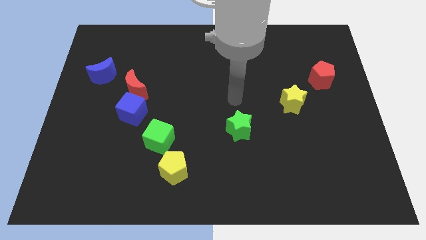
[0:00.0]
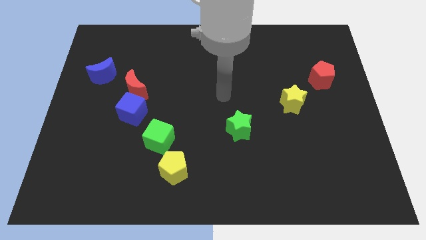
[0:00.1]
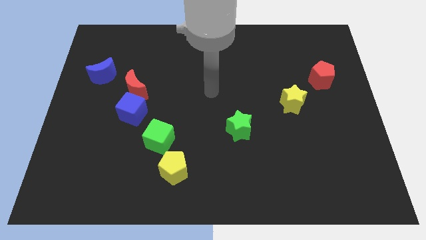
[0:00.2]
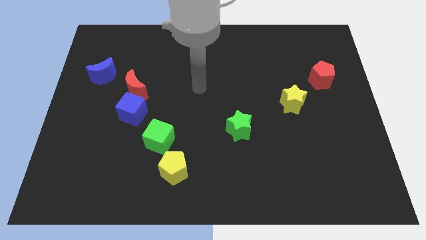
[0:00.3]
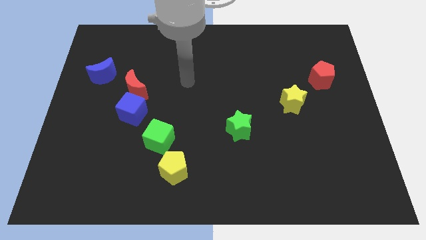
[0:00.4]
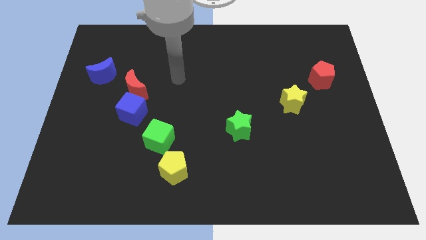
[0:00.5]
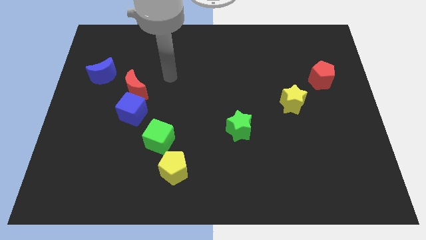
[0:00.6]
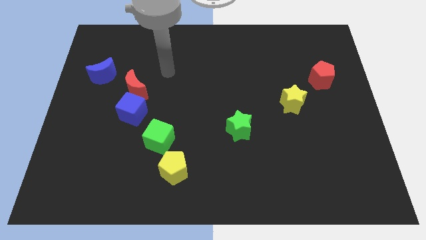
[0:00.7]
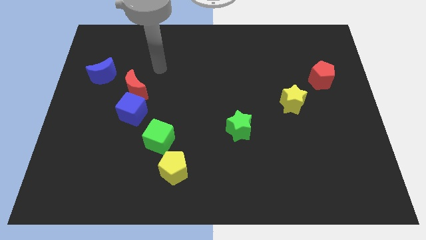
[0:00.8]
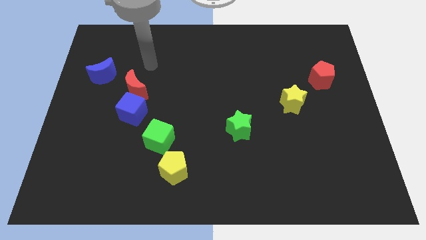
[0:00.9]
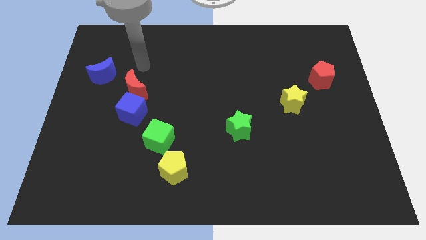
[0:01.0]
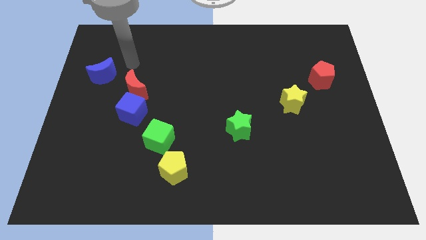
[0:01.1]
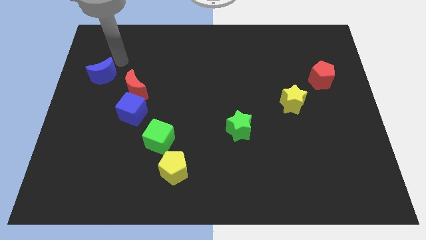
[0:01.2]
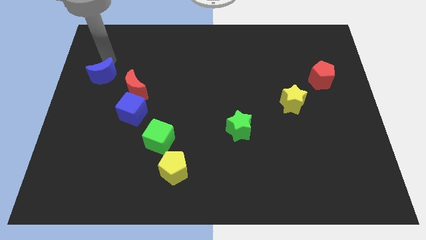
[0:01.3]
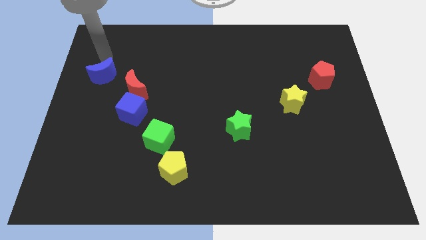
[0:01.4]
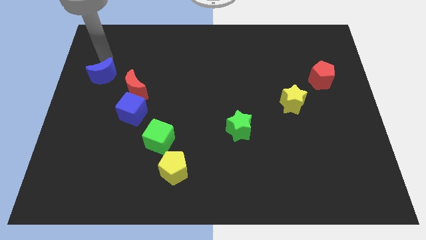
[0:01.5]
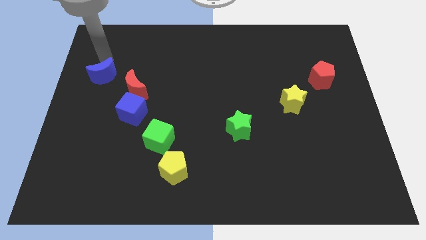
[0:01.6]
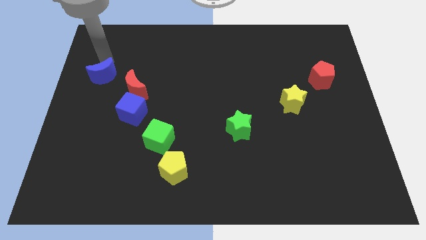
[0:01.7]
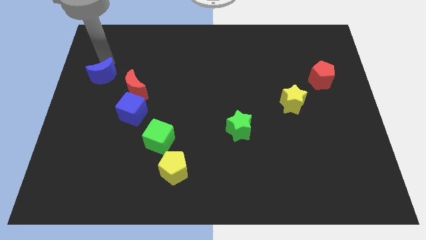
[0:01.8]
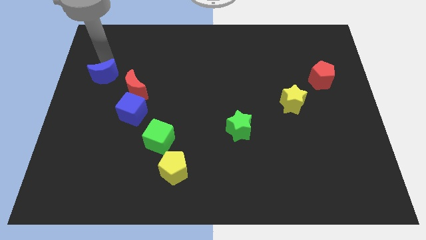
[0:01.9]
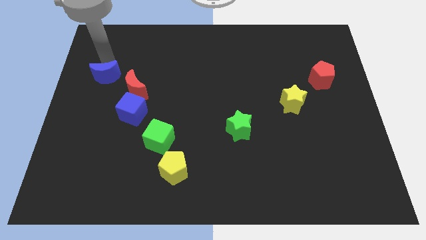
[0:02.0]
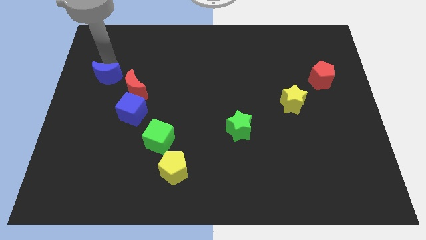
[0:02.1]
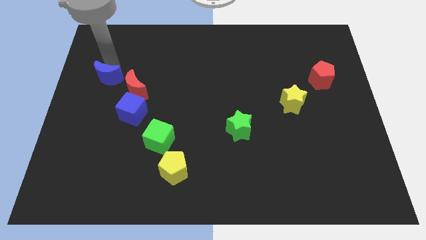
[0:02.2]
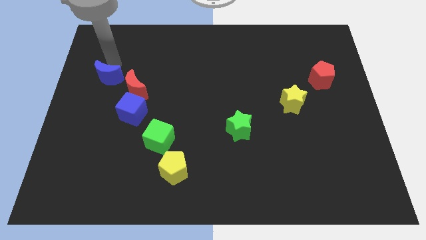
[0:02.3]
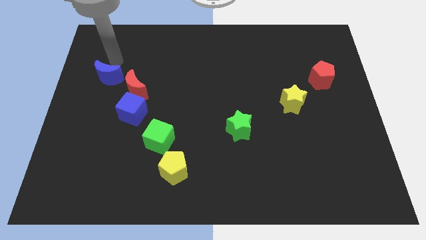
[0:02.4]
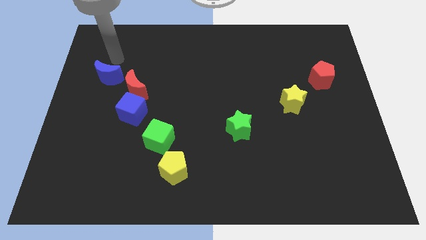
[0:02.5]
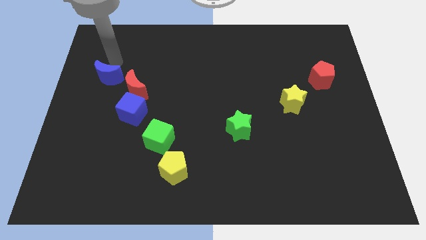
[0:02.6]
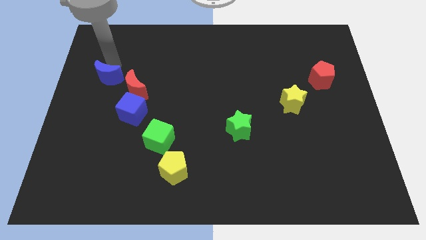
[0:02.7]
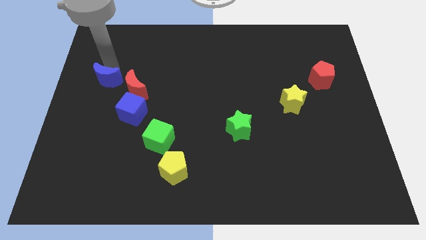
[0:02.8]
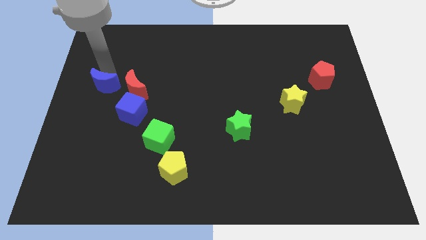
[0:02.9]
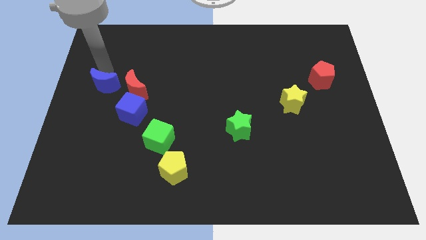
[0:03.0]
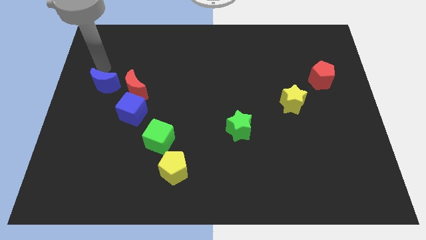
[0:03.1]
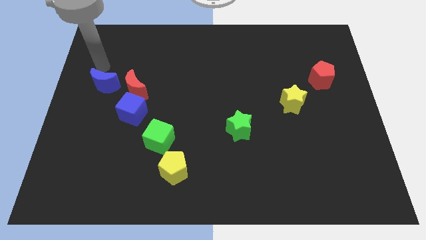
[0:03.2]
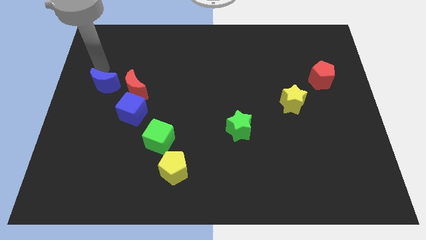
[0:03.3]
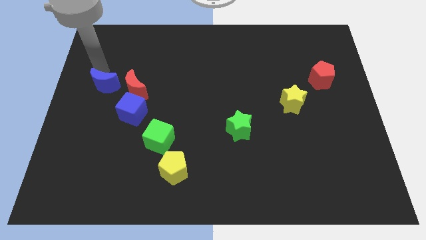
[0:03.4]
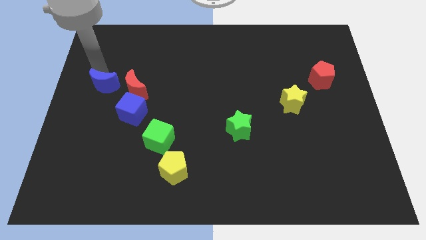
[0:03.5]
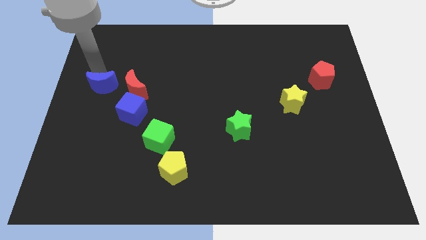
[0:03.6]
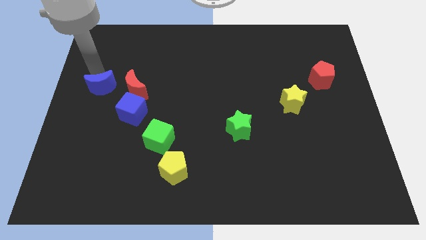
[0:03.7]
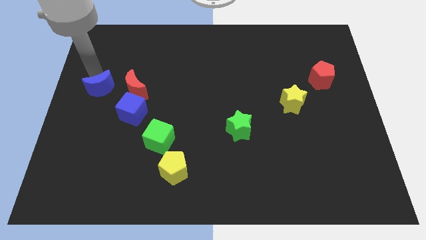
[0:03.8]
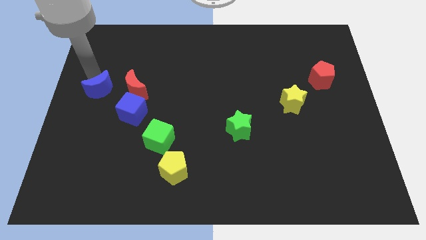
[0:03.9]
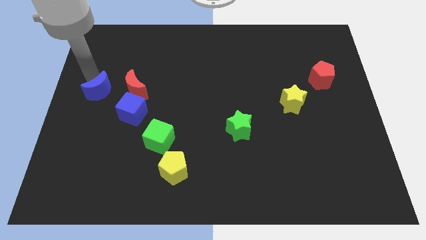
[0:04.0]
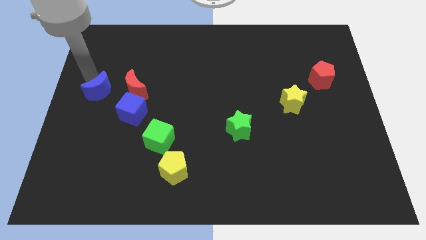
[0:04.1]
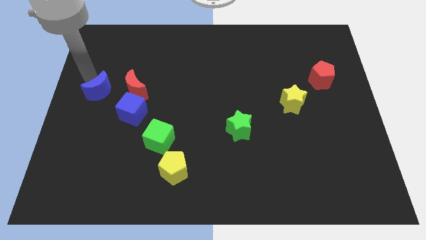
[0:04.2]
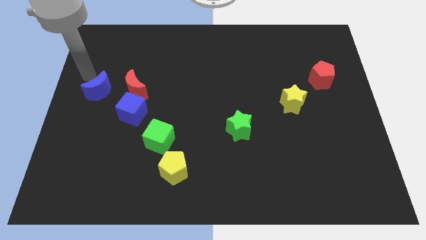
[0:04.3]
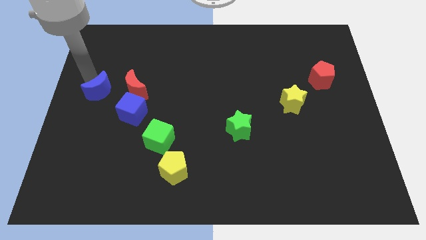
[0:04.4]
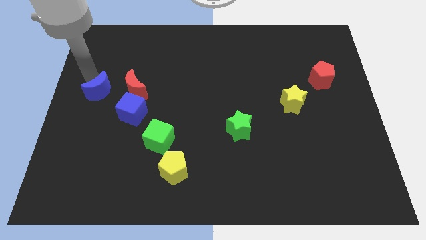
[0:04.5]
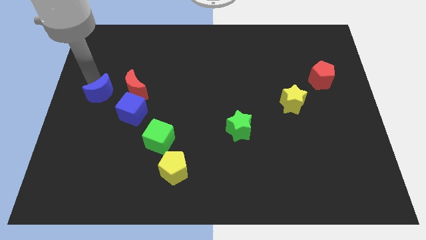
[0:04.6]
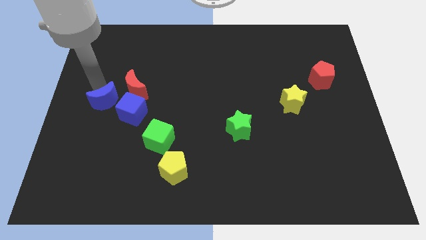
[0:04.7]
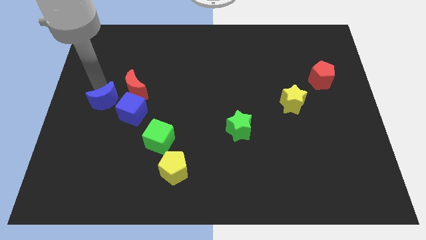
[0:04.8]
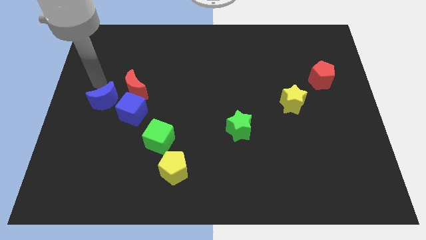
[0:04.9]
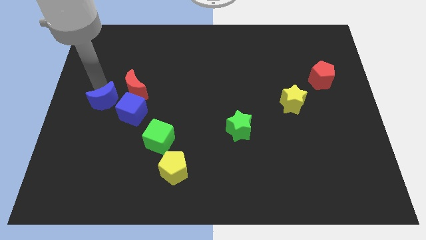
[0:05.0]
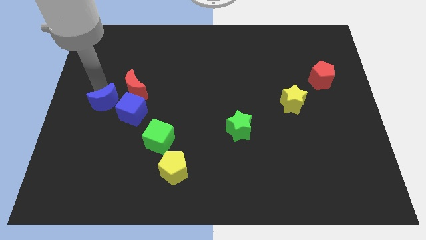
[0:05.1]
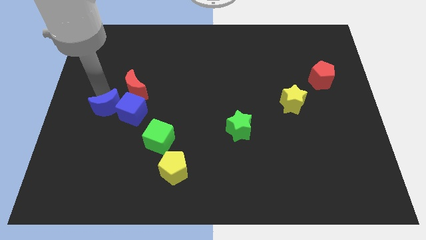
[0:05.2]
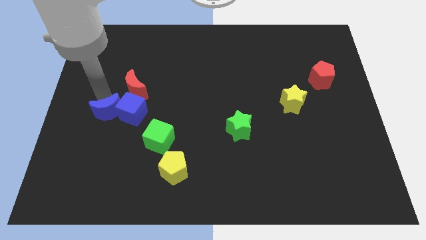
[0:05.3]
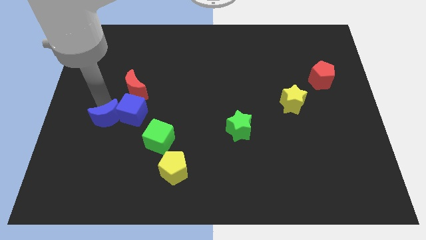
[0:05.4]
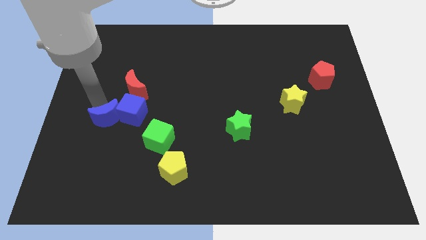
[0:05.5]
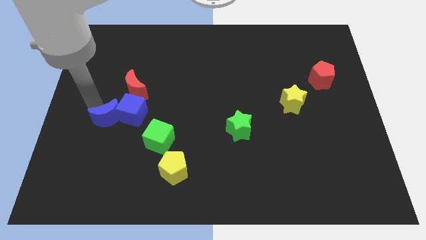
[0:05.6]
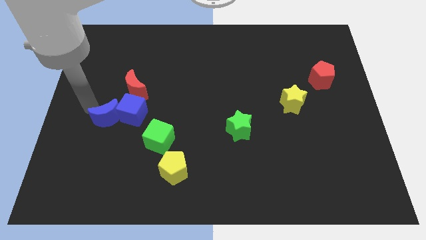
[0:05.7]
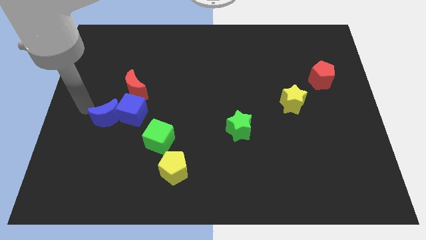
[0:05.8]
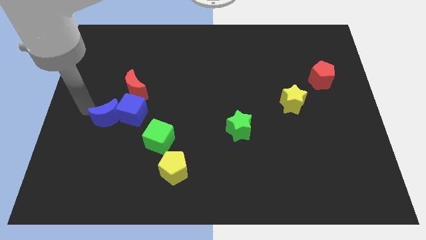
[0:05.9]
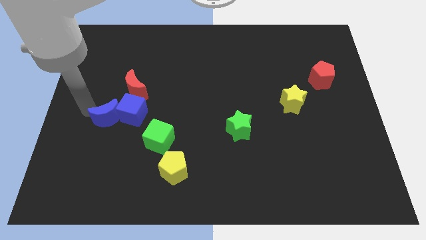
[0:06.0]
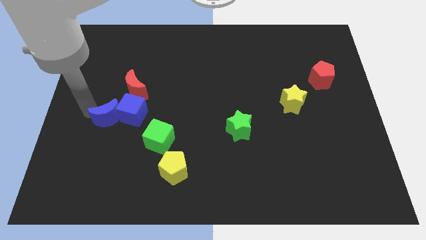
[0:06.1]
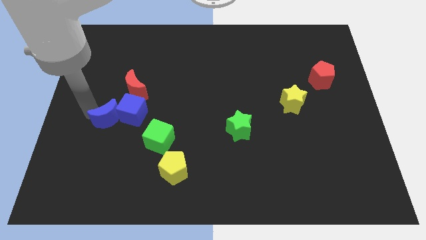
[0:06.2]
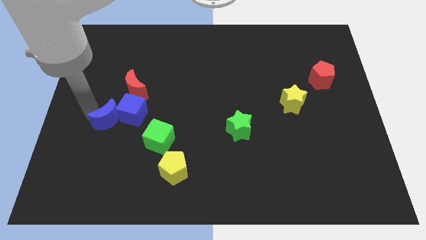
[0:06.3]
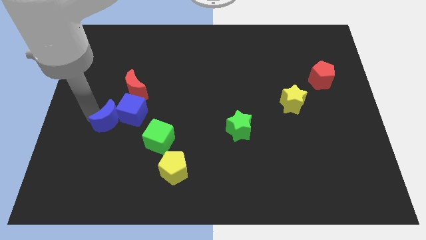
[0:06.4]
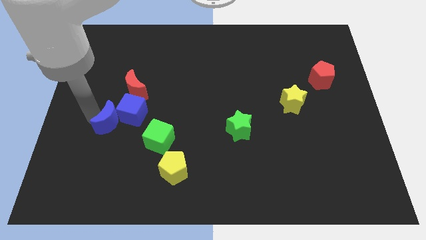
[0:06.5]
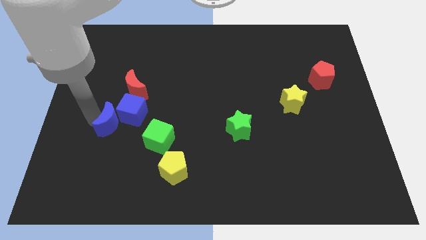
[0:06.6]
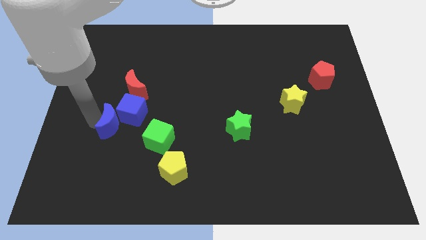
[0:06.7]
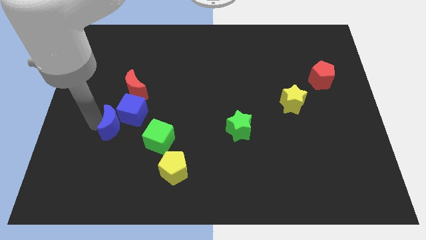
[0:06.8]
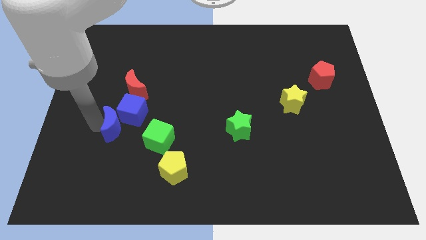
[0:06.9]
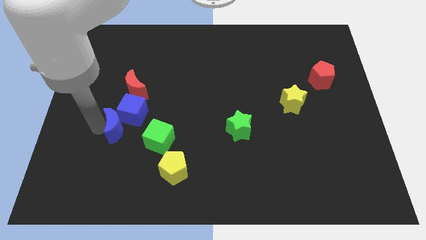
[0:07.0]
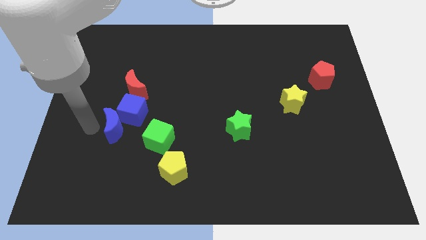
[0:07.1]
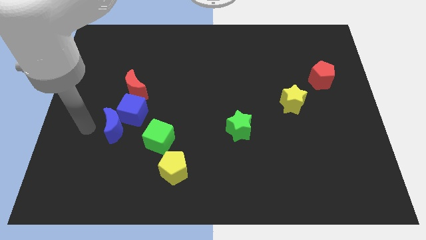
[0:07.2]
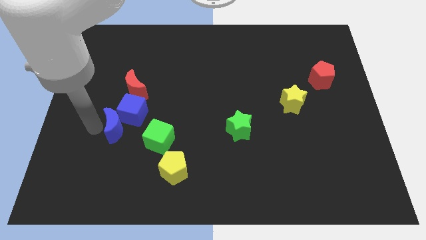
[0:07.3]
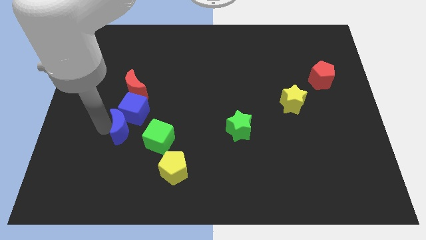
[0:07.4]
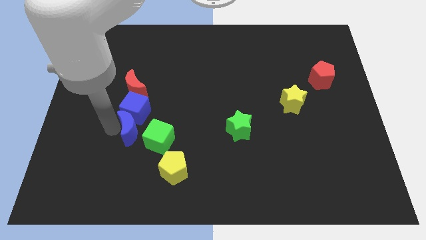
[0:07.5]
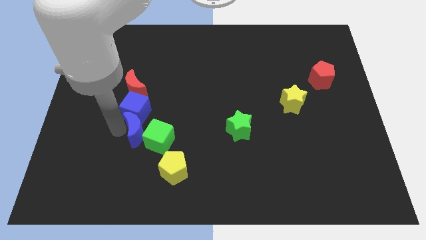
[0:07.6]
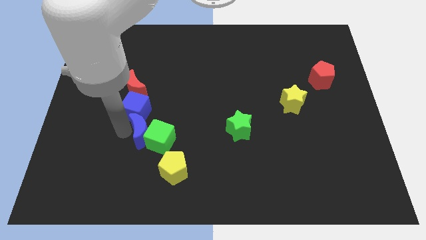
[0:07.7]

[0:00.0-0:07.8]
slide the blue moon diagonally down and to the right
